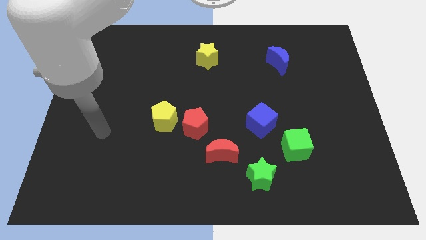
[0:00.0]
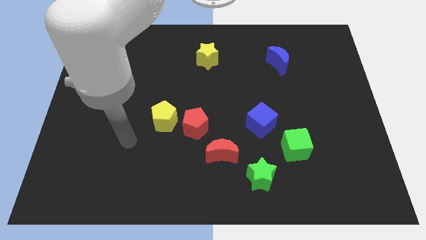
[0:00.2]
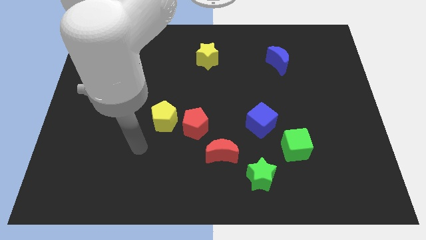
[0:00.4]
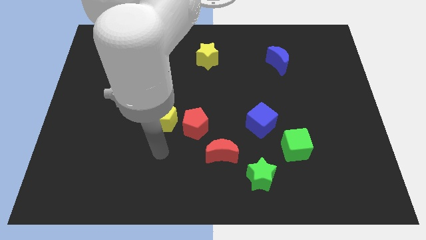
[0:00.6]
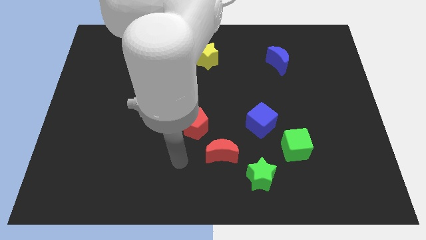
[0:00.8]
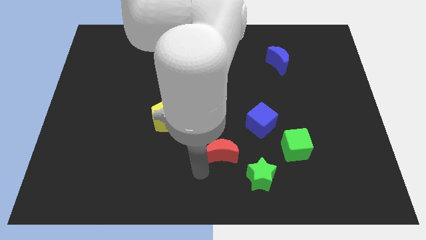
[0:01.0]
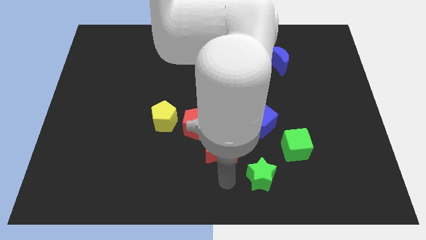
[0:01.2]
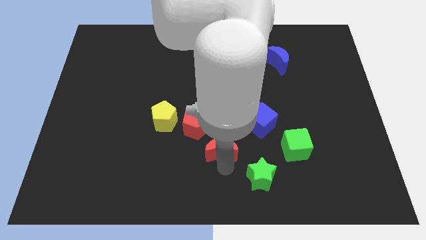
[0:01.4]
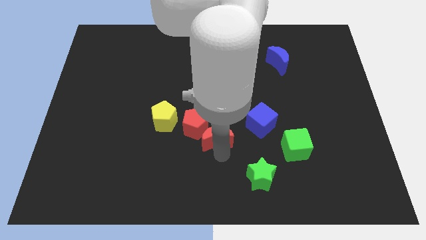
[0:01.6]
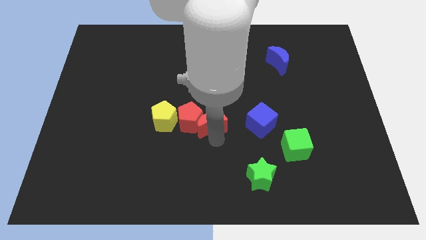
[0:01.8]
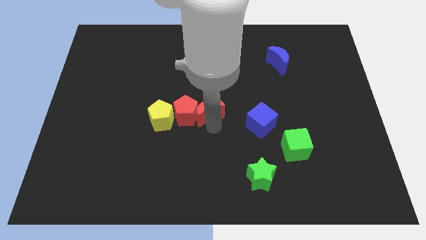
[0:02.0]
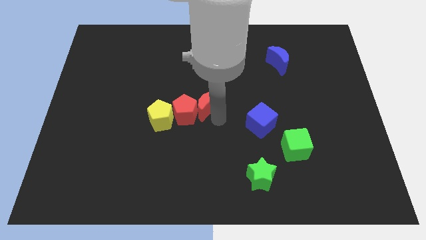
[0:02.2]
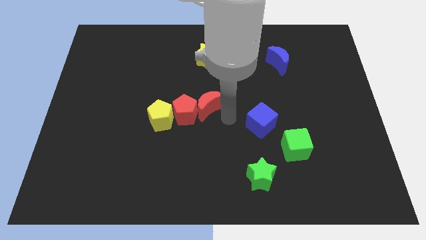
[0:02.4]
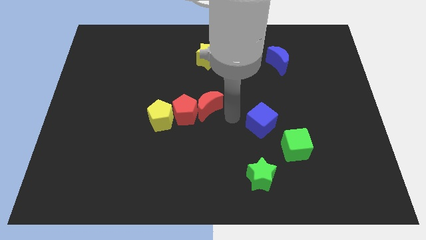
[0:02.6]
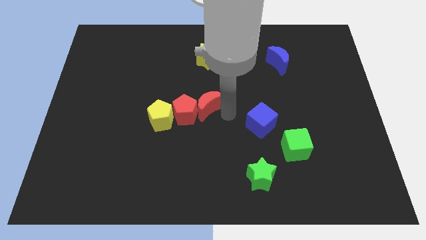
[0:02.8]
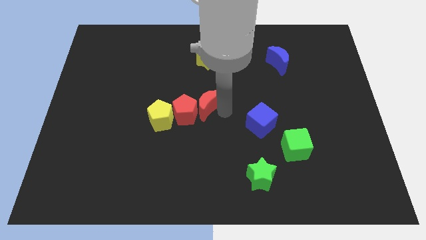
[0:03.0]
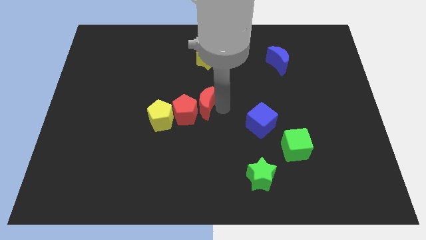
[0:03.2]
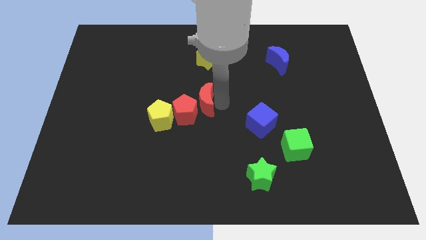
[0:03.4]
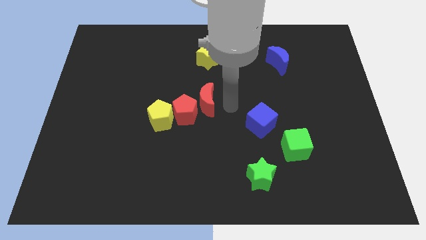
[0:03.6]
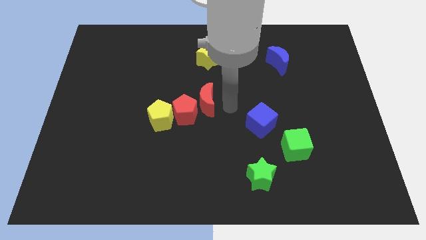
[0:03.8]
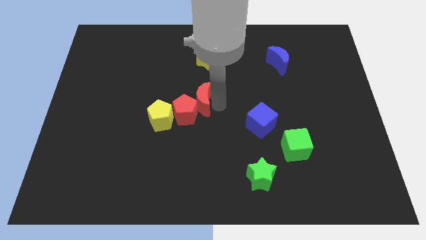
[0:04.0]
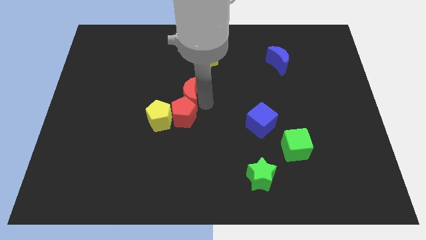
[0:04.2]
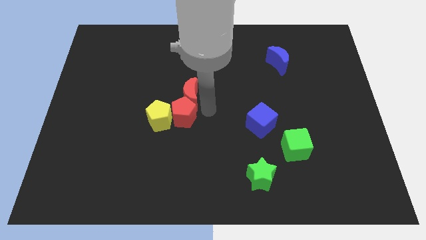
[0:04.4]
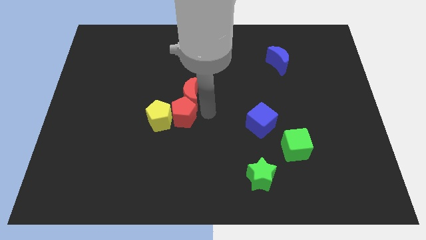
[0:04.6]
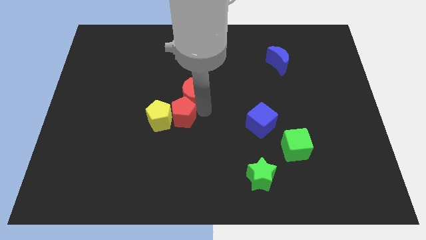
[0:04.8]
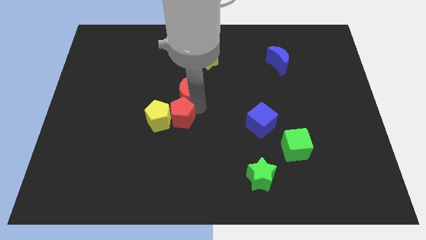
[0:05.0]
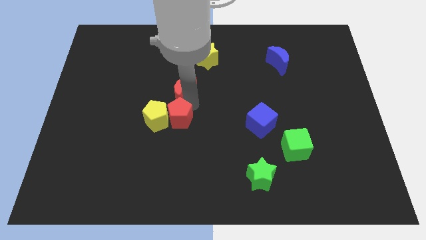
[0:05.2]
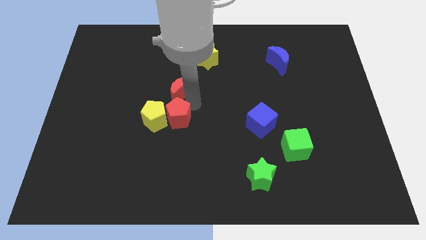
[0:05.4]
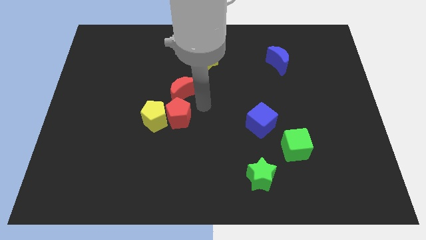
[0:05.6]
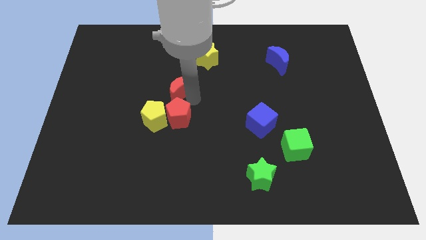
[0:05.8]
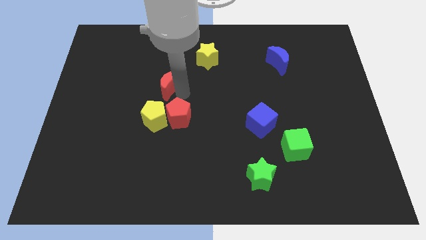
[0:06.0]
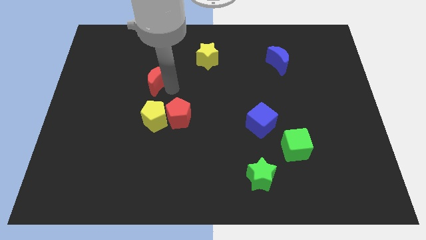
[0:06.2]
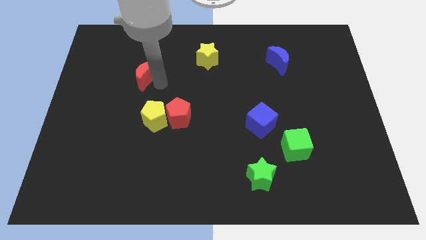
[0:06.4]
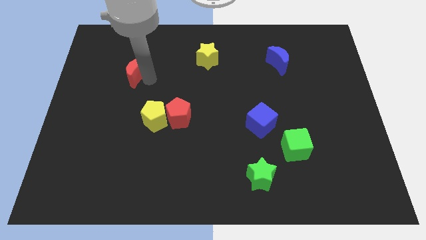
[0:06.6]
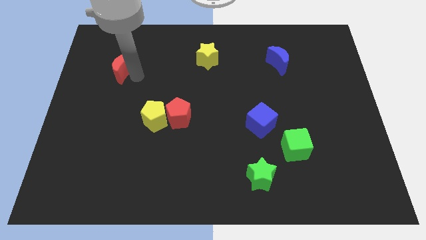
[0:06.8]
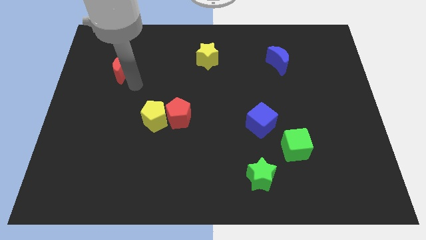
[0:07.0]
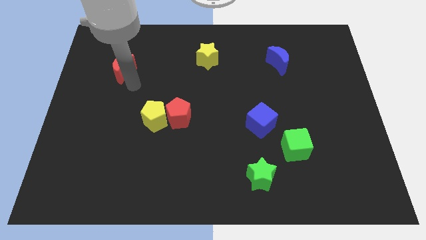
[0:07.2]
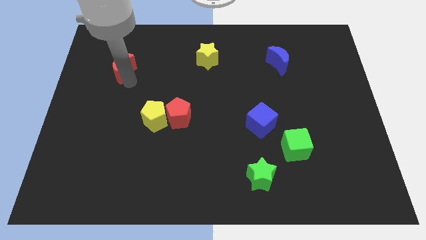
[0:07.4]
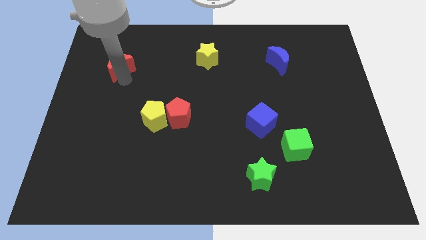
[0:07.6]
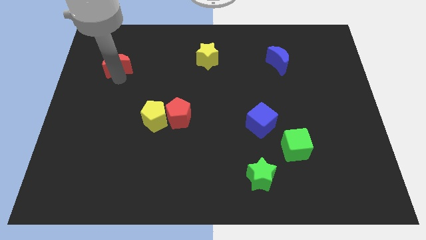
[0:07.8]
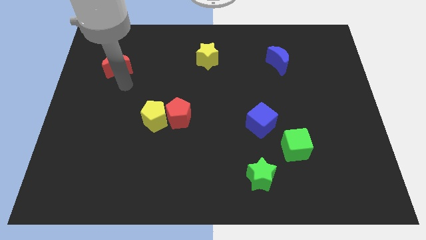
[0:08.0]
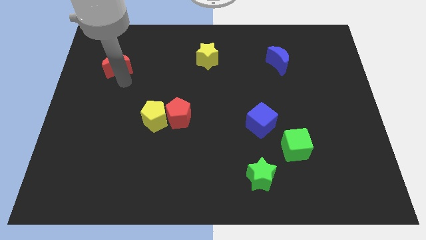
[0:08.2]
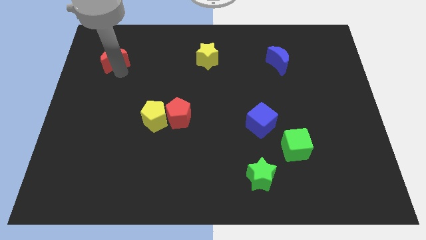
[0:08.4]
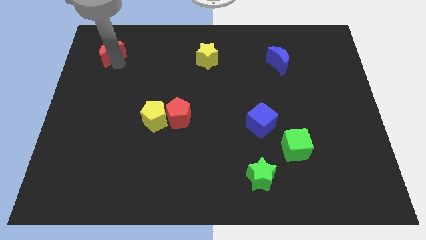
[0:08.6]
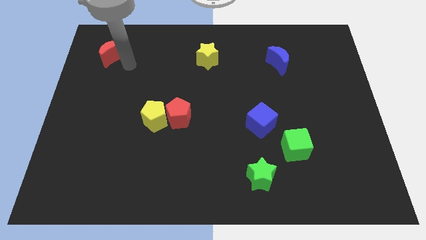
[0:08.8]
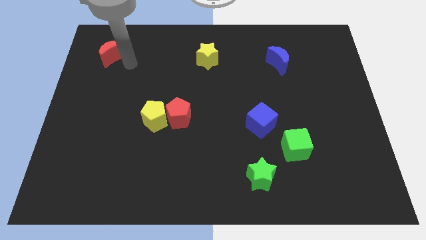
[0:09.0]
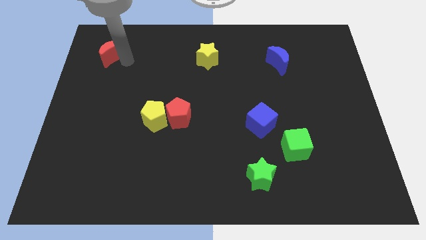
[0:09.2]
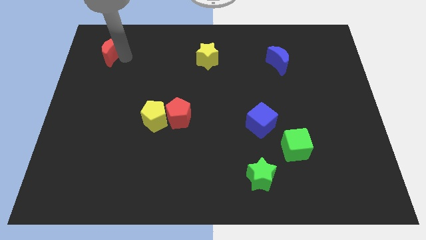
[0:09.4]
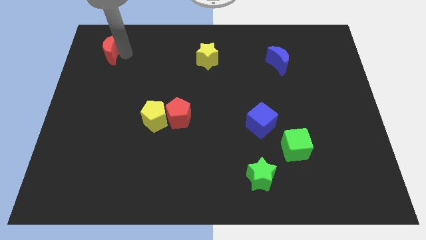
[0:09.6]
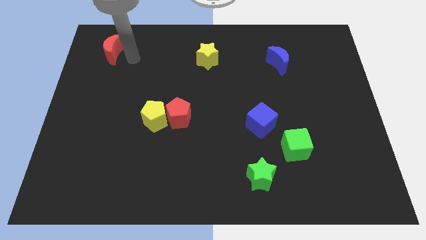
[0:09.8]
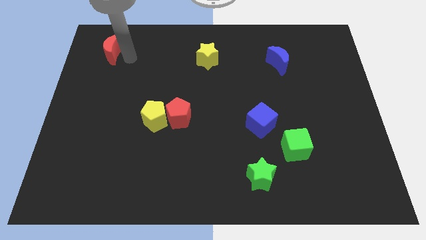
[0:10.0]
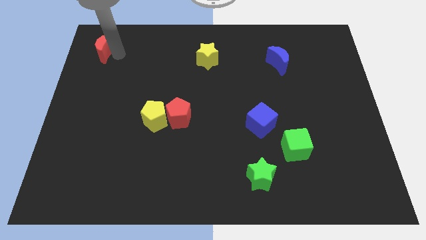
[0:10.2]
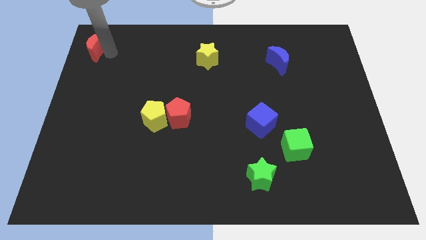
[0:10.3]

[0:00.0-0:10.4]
move the red moon to the top left corner

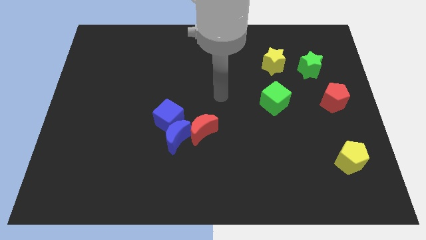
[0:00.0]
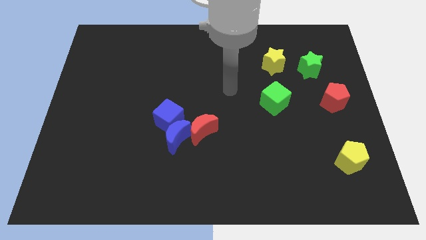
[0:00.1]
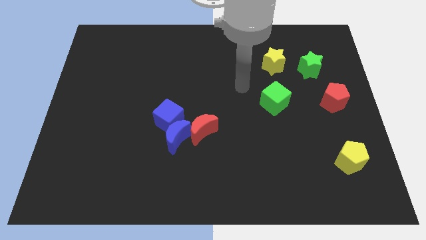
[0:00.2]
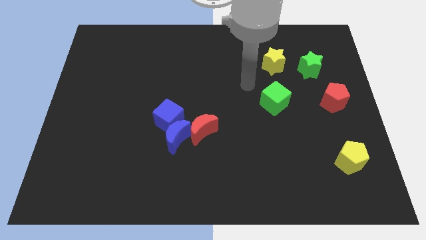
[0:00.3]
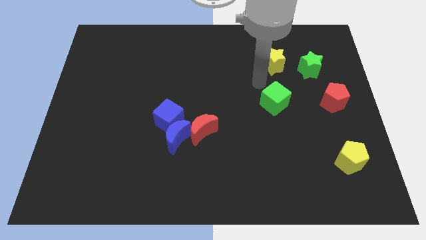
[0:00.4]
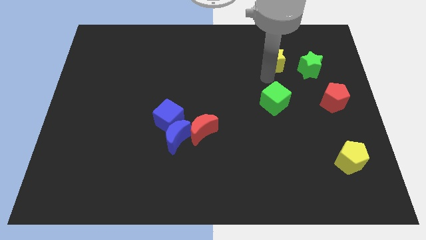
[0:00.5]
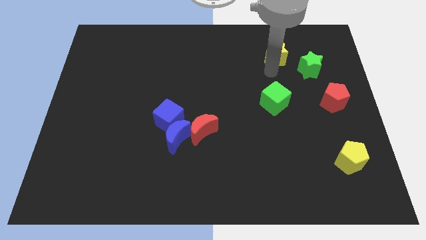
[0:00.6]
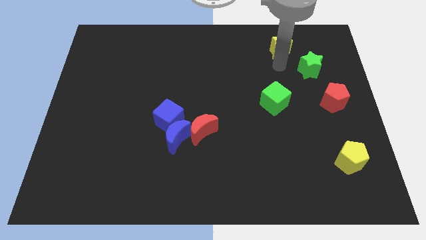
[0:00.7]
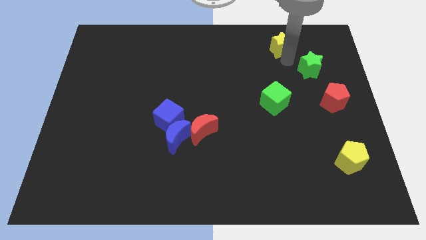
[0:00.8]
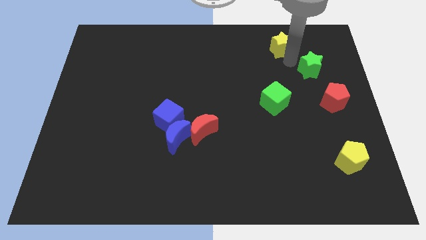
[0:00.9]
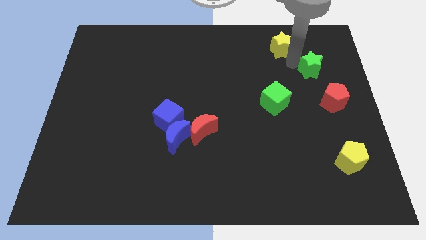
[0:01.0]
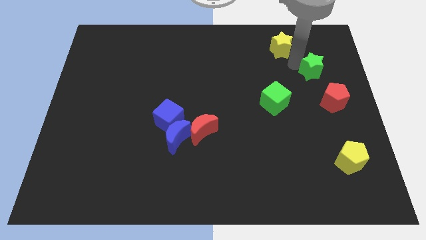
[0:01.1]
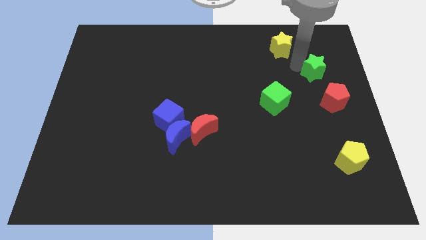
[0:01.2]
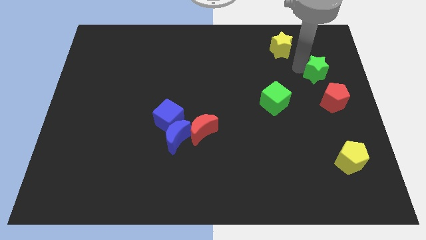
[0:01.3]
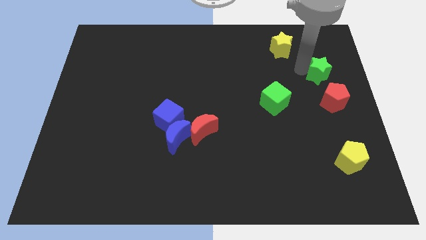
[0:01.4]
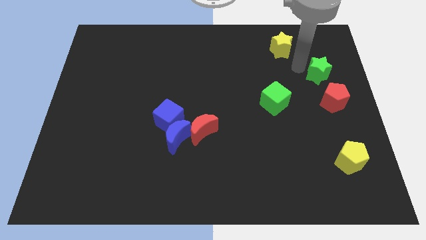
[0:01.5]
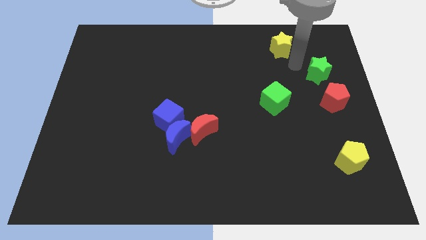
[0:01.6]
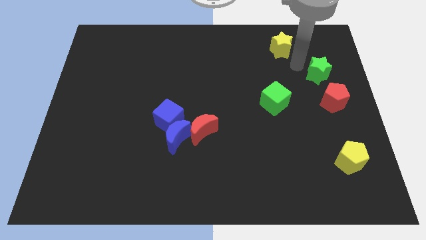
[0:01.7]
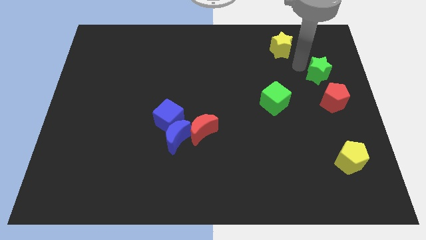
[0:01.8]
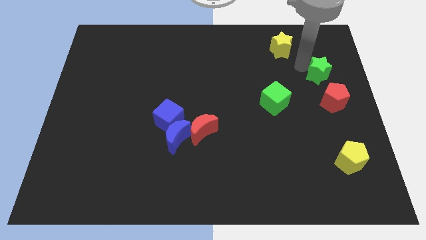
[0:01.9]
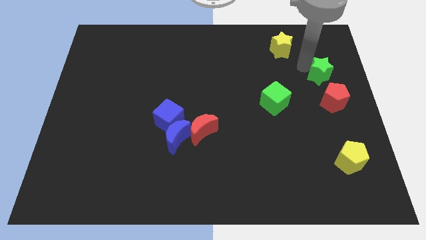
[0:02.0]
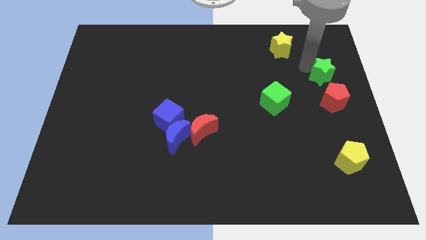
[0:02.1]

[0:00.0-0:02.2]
move the green star to the center right
